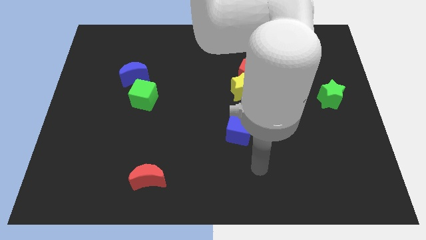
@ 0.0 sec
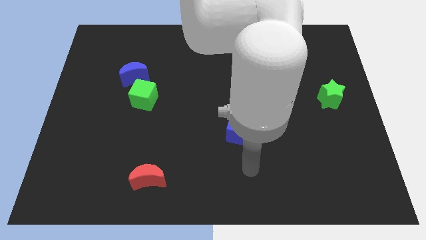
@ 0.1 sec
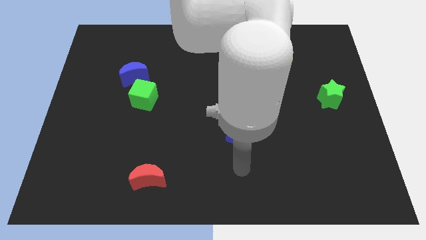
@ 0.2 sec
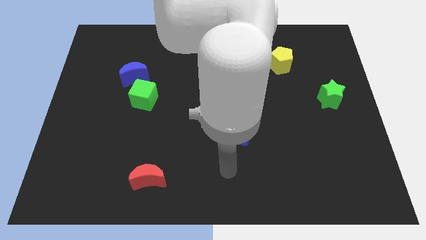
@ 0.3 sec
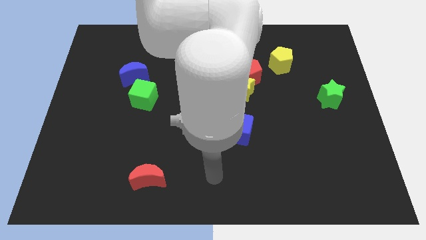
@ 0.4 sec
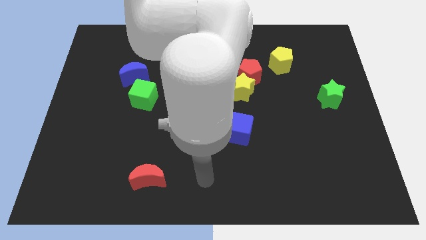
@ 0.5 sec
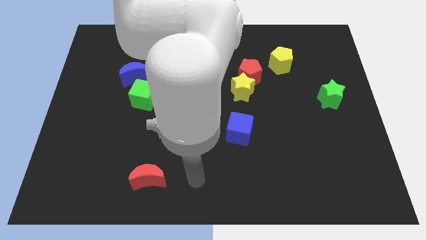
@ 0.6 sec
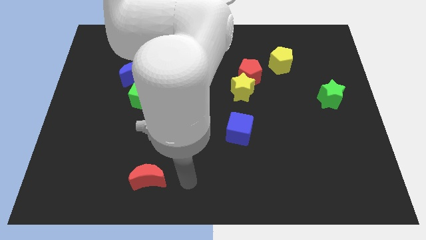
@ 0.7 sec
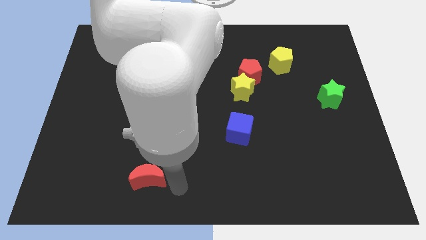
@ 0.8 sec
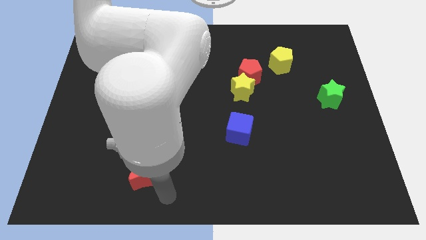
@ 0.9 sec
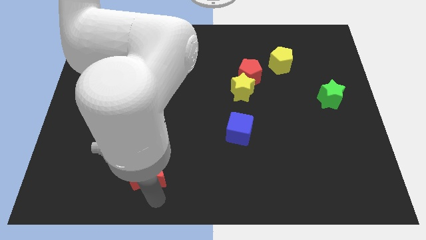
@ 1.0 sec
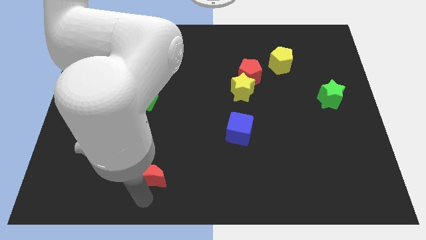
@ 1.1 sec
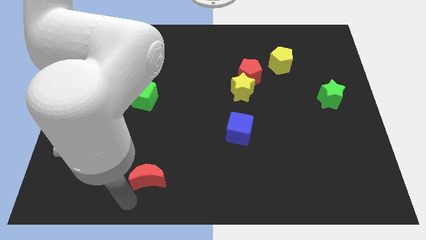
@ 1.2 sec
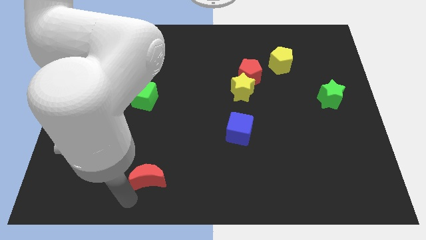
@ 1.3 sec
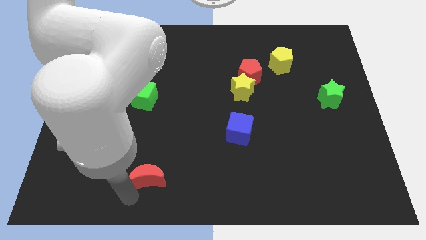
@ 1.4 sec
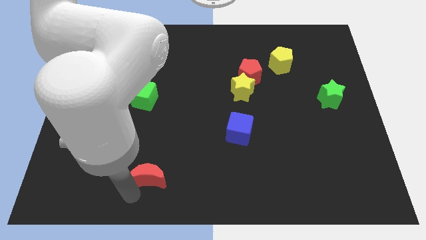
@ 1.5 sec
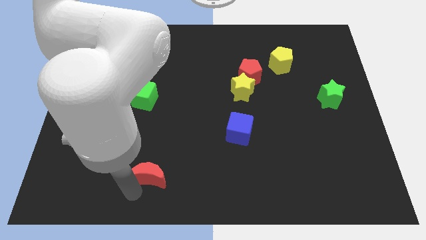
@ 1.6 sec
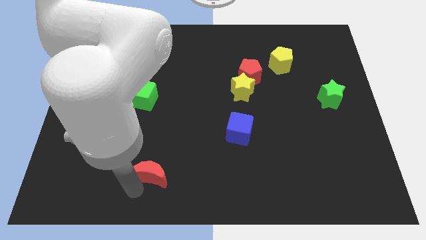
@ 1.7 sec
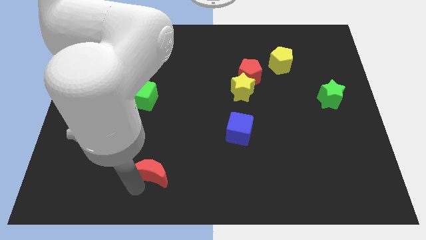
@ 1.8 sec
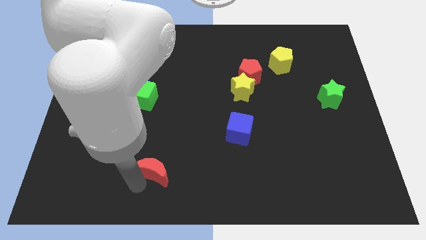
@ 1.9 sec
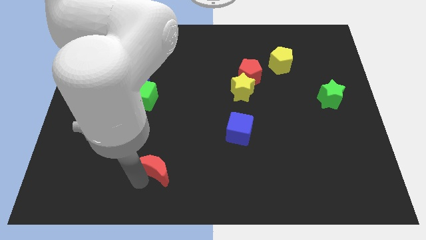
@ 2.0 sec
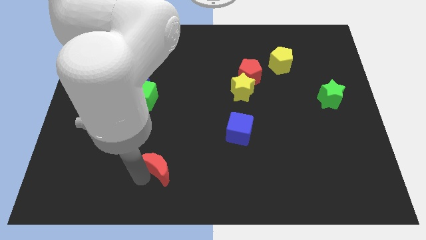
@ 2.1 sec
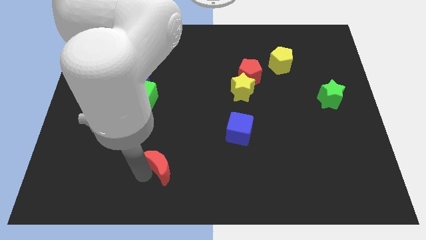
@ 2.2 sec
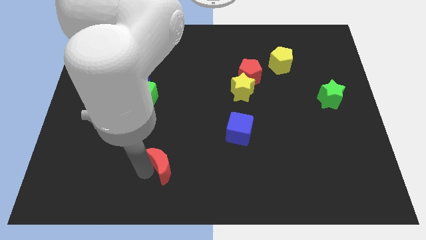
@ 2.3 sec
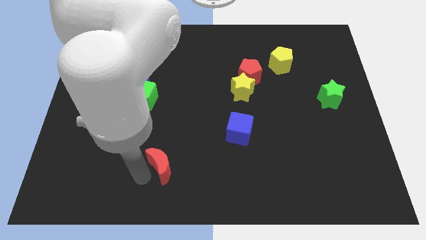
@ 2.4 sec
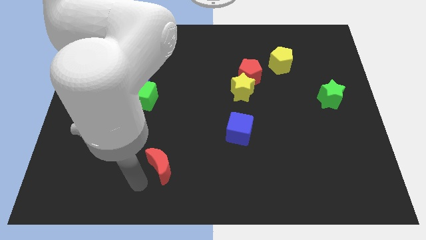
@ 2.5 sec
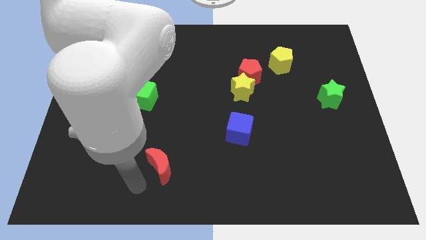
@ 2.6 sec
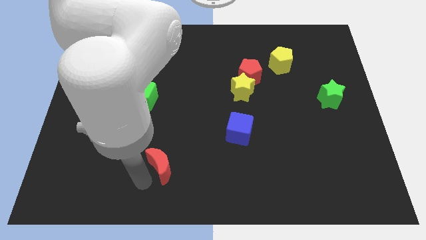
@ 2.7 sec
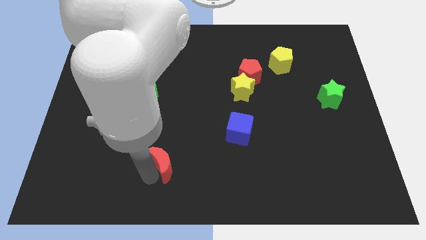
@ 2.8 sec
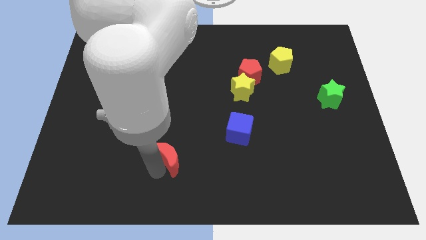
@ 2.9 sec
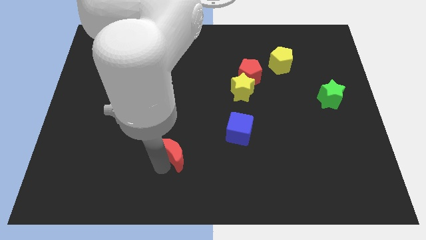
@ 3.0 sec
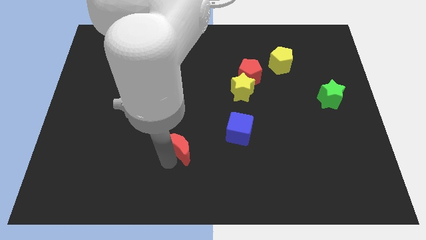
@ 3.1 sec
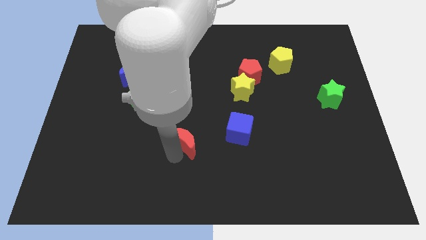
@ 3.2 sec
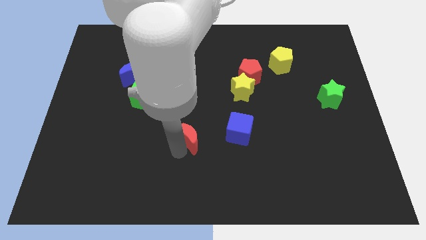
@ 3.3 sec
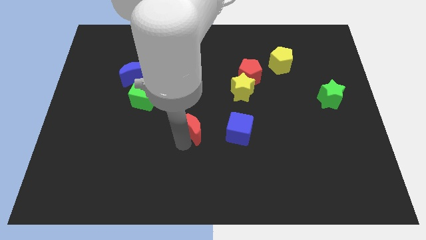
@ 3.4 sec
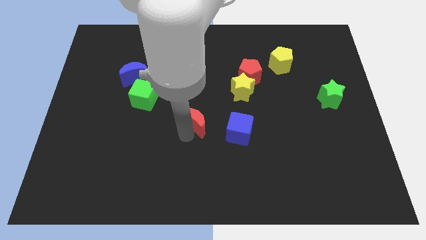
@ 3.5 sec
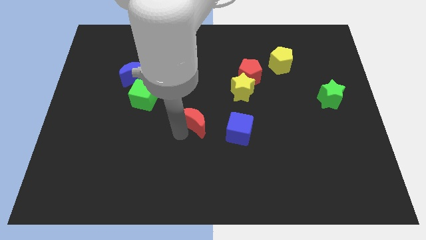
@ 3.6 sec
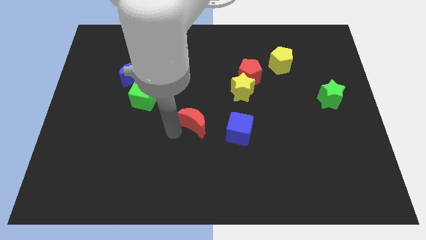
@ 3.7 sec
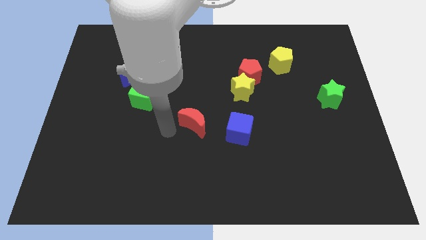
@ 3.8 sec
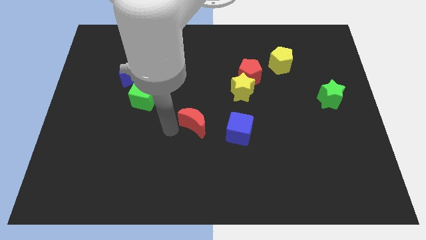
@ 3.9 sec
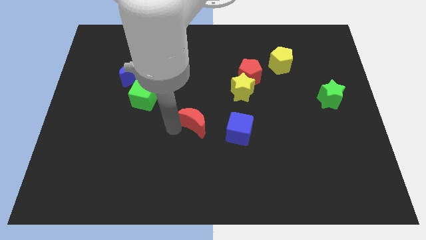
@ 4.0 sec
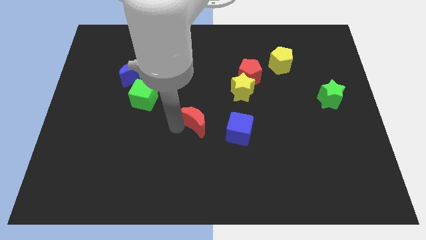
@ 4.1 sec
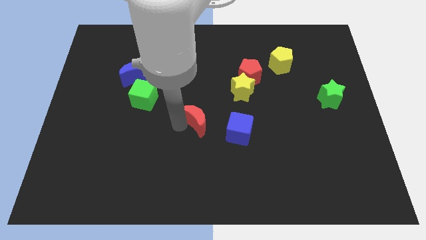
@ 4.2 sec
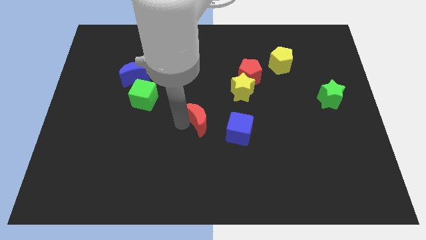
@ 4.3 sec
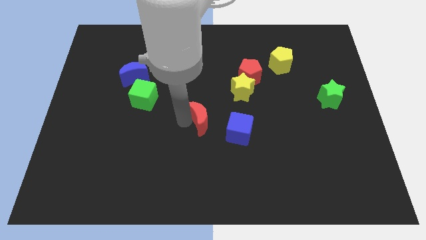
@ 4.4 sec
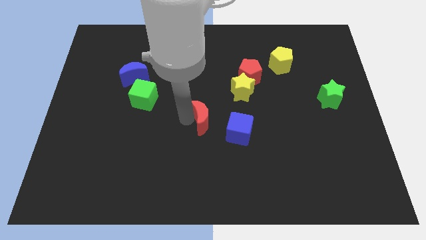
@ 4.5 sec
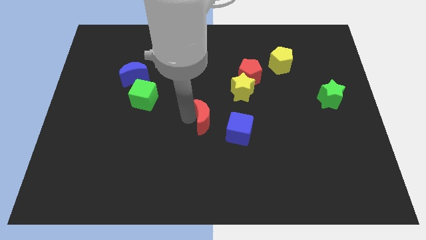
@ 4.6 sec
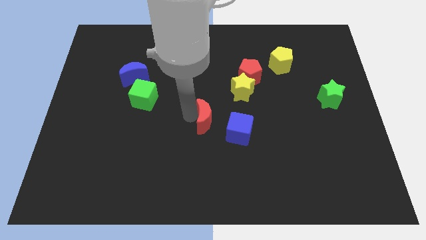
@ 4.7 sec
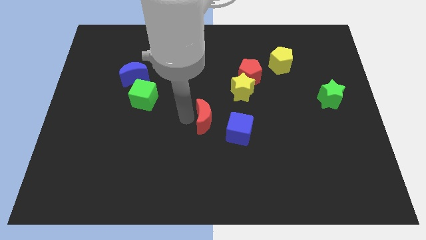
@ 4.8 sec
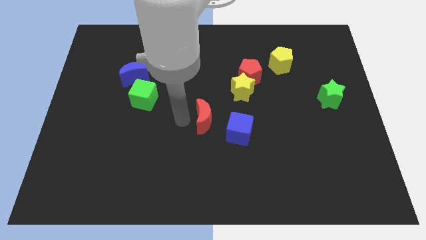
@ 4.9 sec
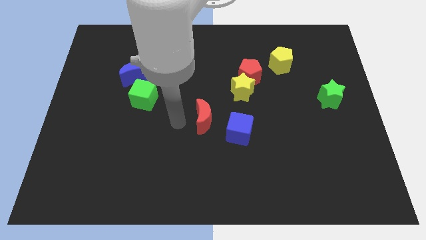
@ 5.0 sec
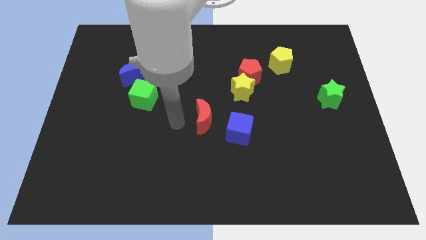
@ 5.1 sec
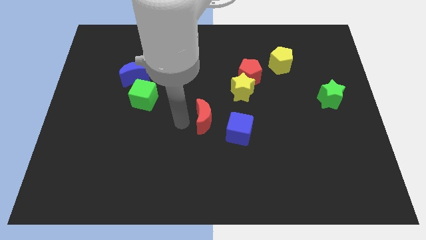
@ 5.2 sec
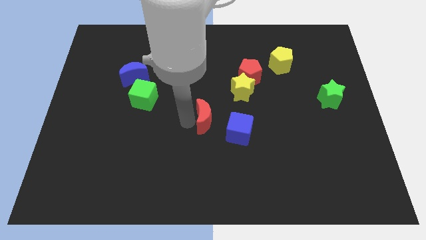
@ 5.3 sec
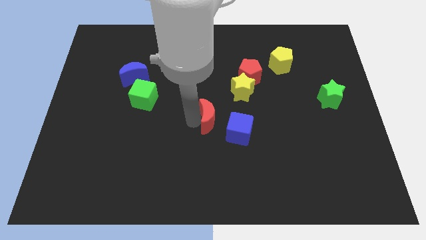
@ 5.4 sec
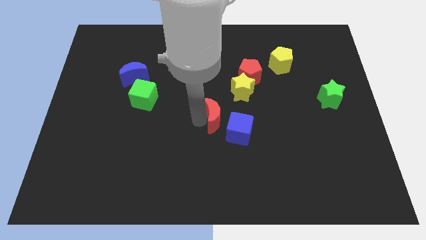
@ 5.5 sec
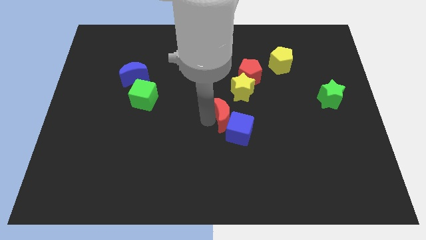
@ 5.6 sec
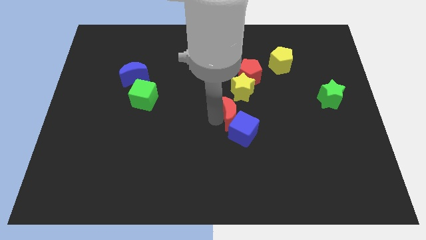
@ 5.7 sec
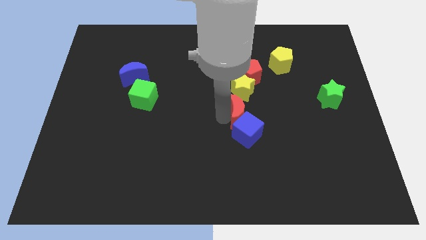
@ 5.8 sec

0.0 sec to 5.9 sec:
move the red moon to the bottom side of the red pentagon
